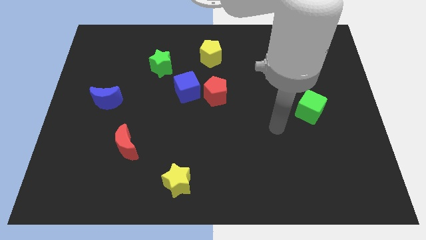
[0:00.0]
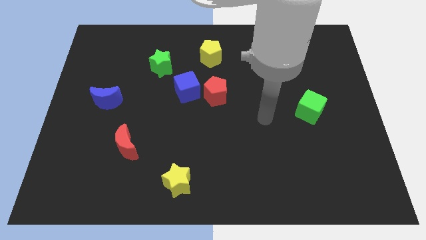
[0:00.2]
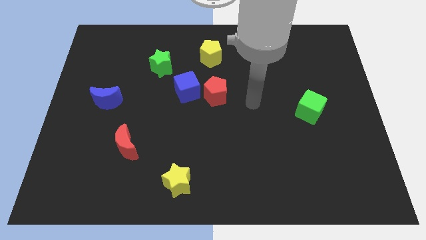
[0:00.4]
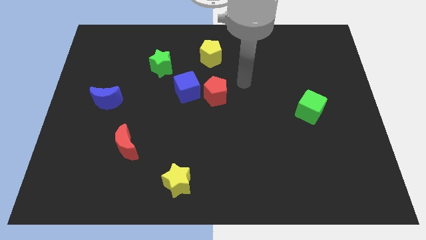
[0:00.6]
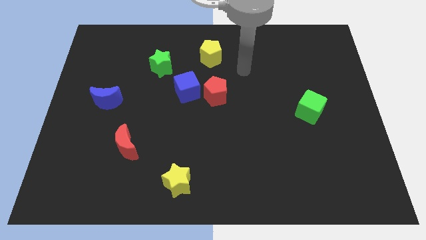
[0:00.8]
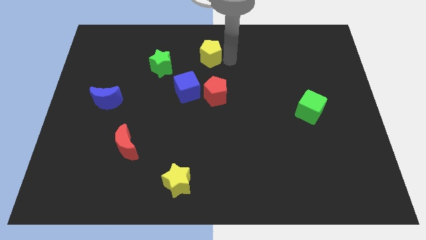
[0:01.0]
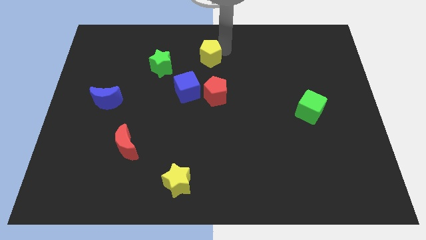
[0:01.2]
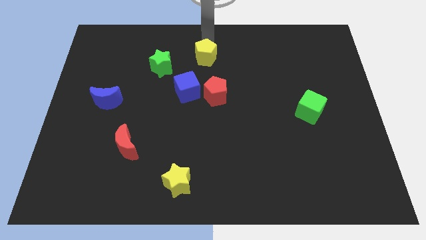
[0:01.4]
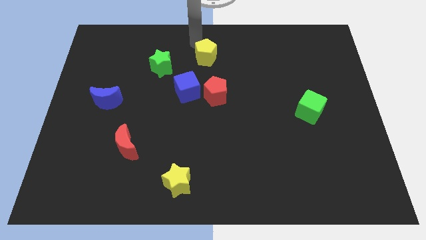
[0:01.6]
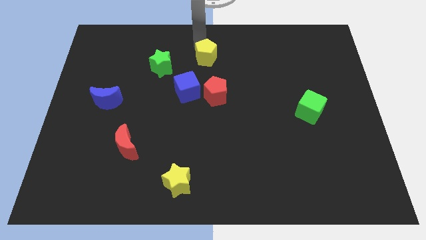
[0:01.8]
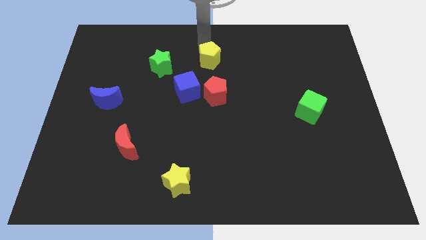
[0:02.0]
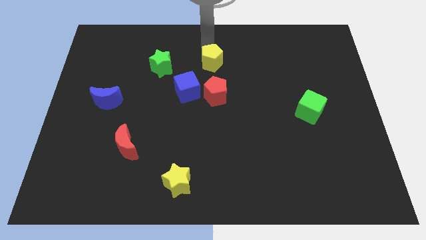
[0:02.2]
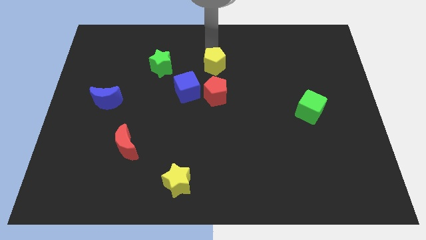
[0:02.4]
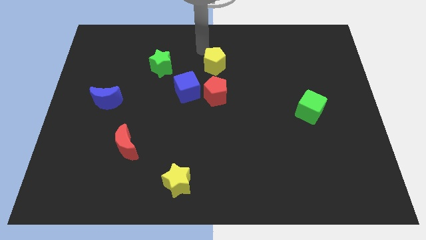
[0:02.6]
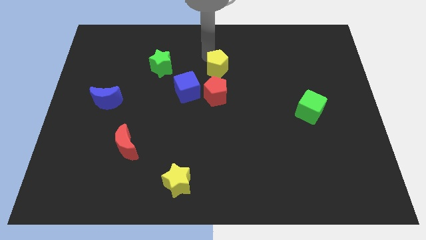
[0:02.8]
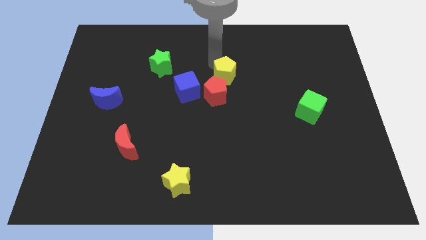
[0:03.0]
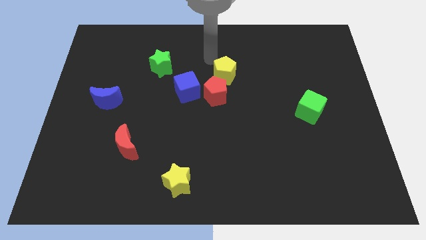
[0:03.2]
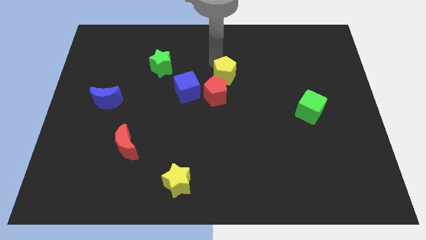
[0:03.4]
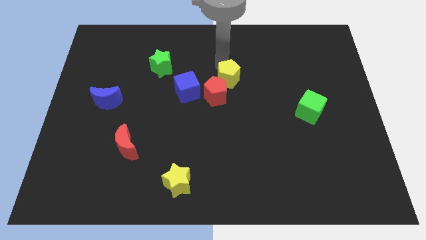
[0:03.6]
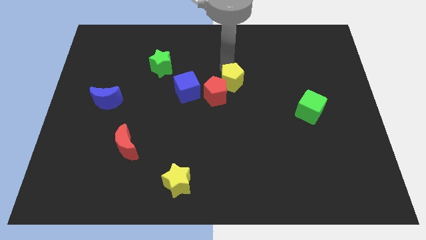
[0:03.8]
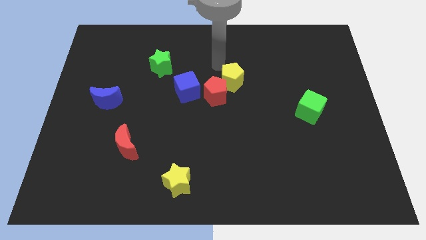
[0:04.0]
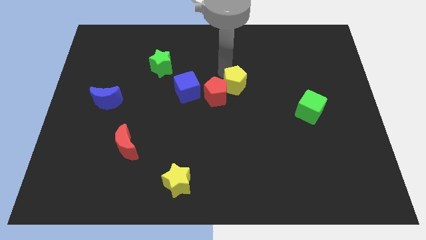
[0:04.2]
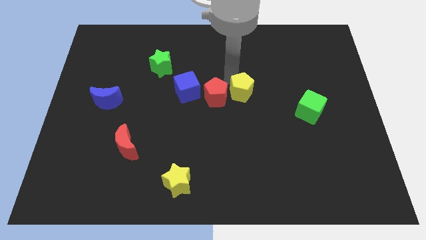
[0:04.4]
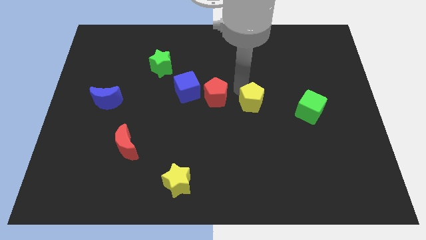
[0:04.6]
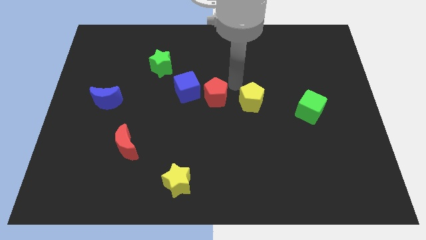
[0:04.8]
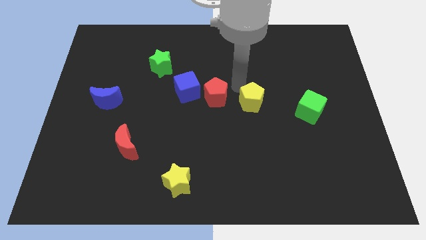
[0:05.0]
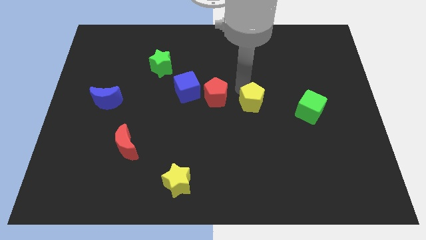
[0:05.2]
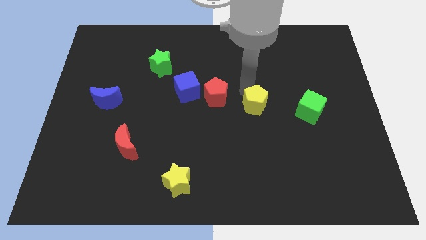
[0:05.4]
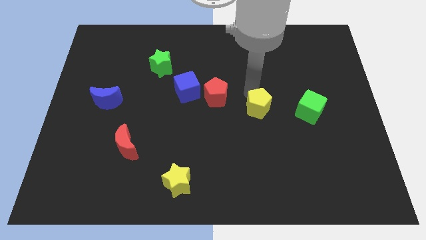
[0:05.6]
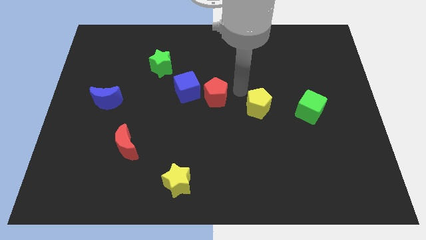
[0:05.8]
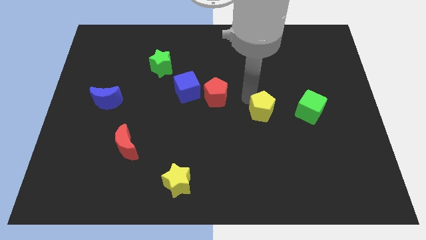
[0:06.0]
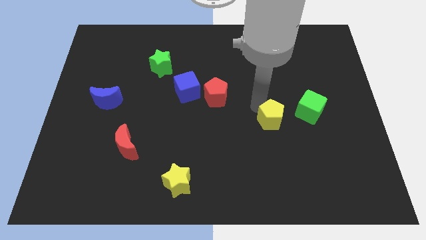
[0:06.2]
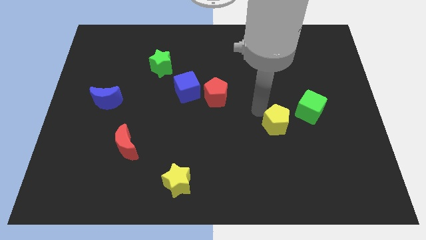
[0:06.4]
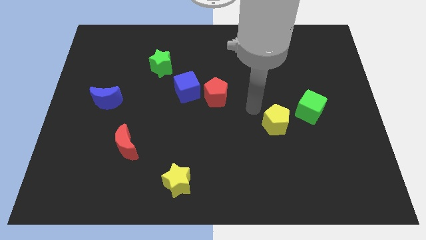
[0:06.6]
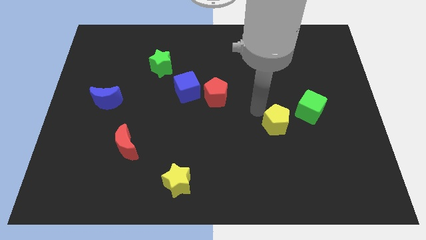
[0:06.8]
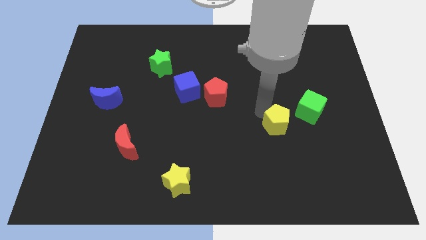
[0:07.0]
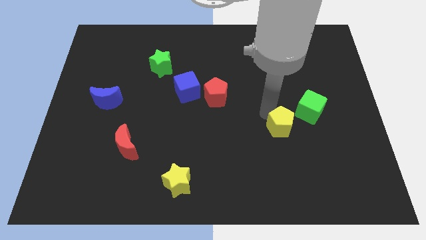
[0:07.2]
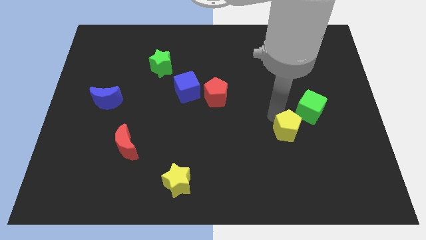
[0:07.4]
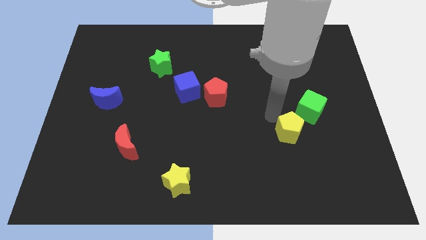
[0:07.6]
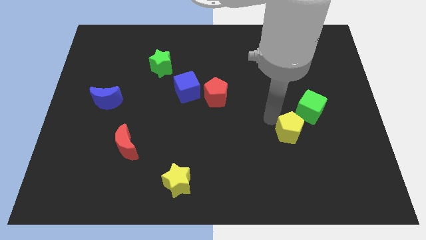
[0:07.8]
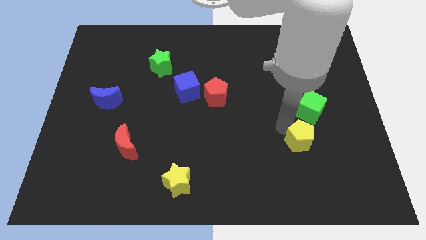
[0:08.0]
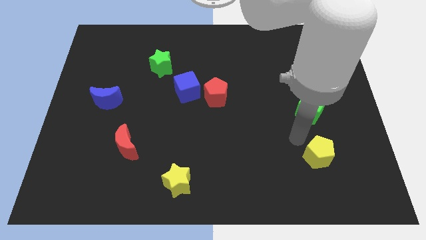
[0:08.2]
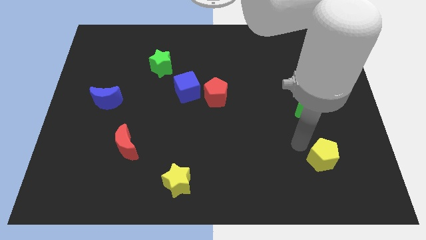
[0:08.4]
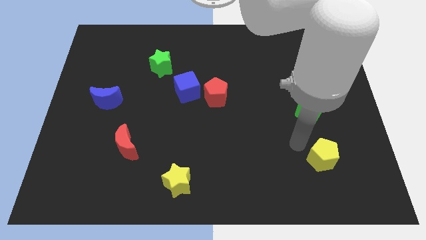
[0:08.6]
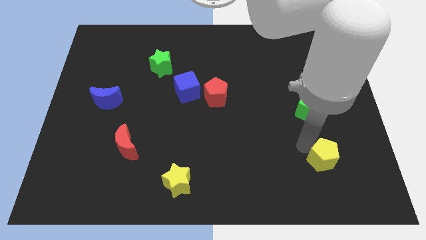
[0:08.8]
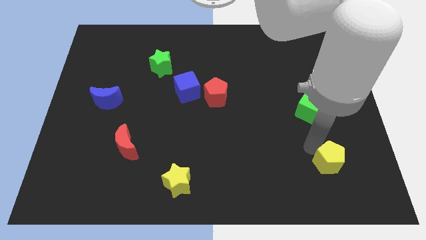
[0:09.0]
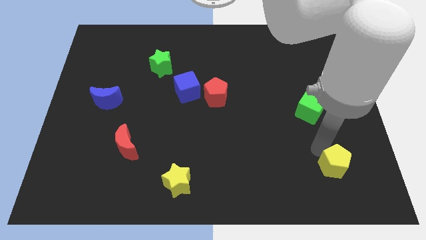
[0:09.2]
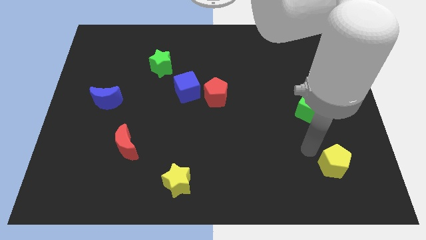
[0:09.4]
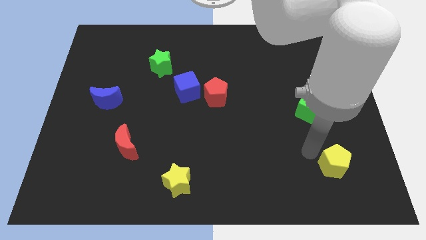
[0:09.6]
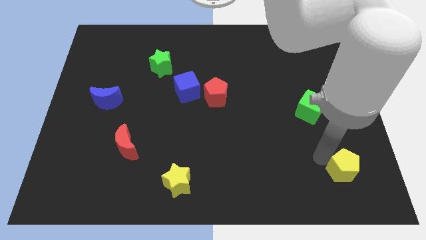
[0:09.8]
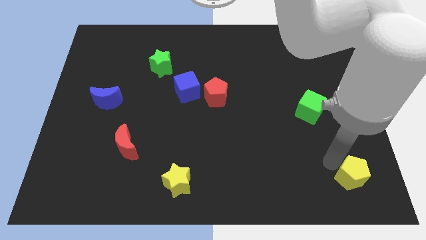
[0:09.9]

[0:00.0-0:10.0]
move the yellow pentagon to the bottom right of the board

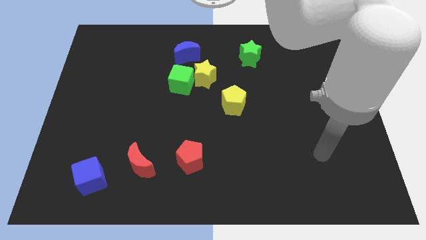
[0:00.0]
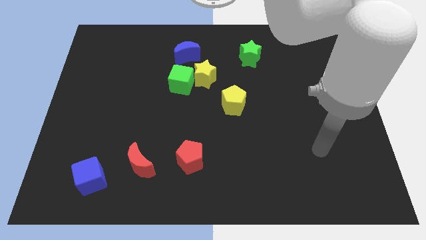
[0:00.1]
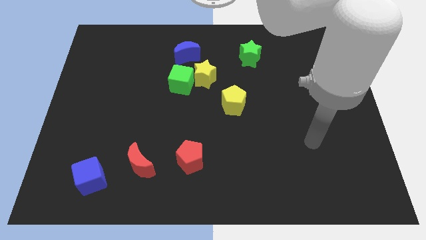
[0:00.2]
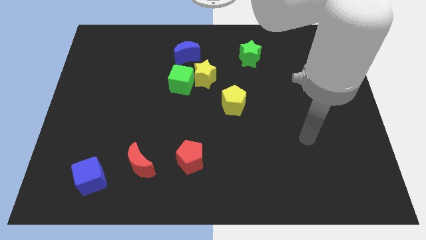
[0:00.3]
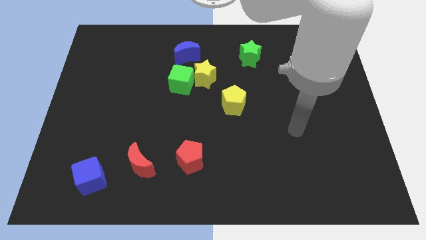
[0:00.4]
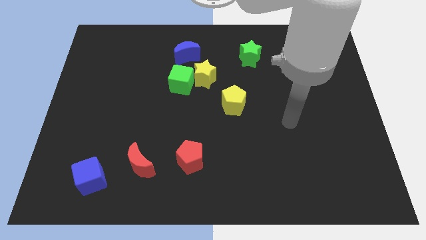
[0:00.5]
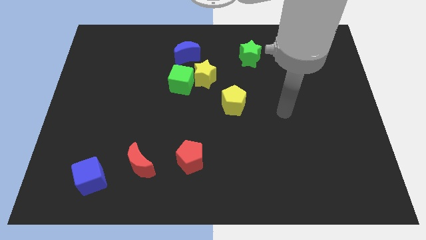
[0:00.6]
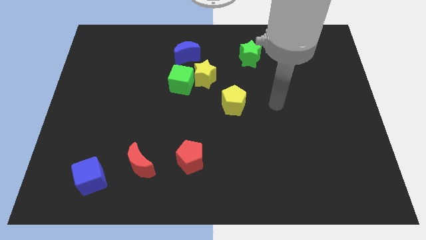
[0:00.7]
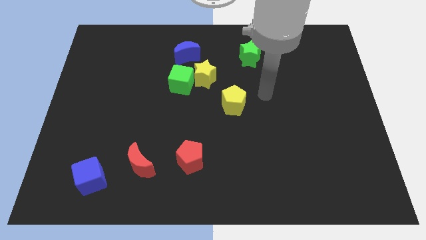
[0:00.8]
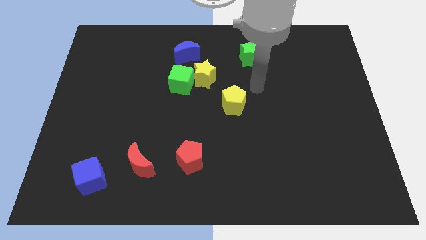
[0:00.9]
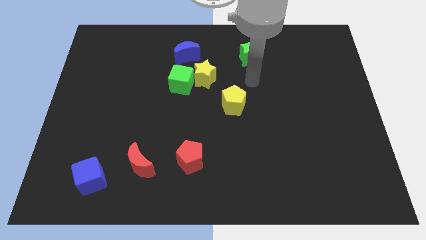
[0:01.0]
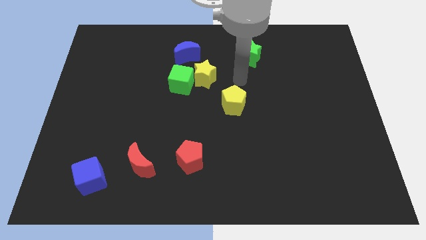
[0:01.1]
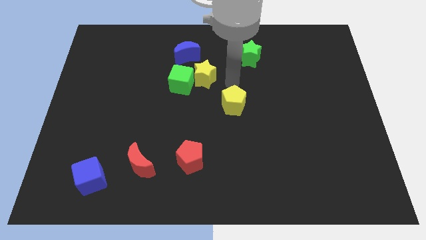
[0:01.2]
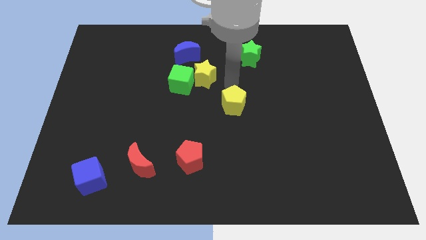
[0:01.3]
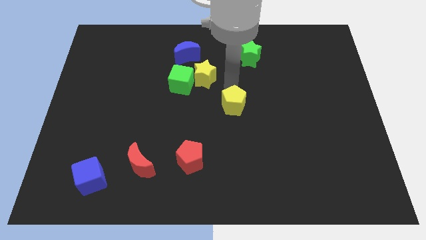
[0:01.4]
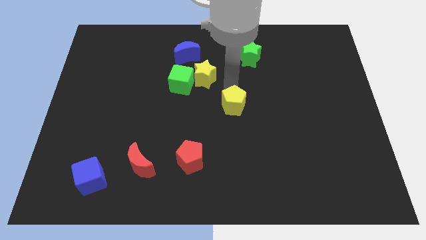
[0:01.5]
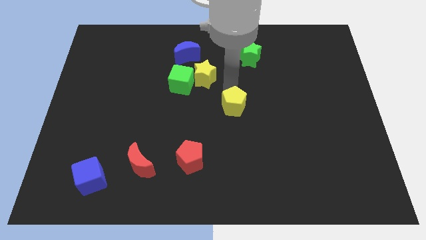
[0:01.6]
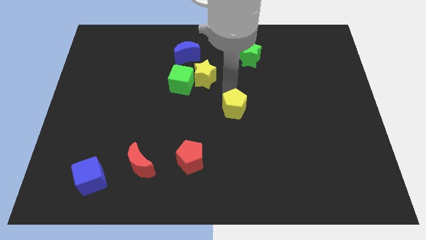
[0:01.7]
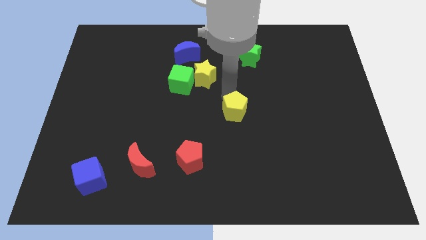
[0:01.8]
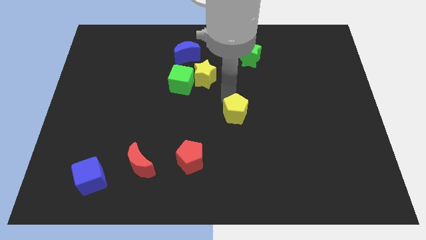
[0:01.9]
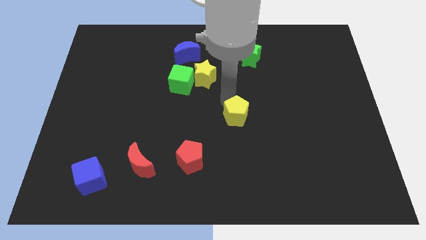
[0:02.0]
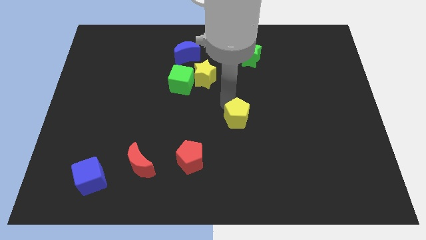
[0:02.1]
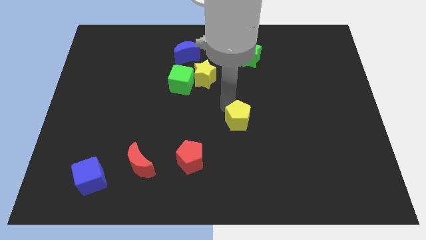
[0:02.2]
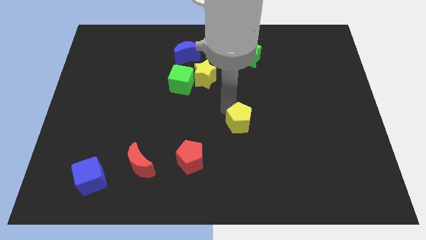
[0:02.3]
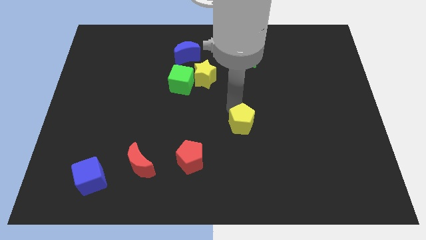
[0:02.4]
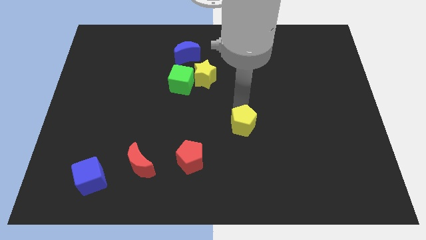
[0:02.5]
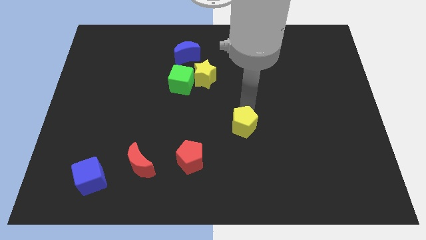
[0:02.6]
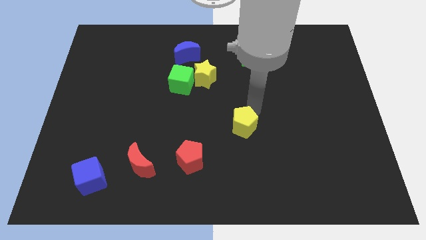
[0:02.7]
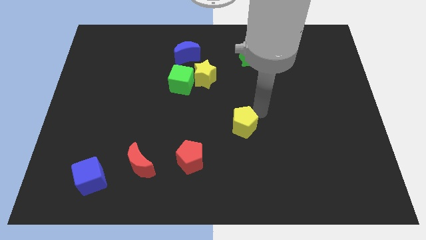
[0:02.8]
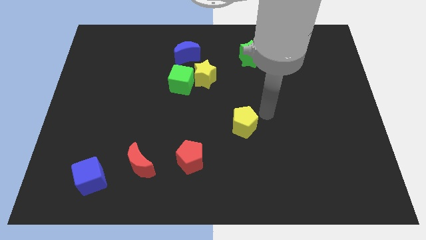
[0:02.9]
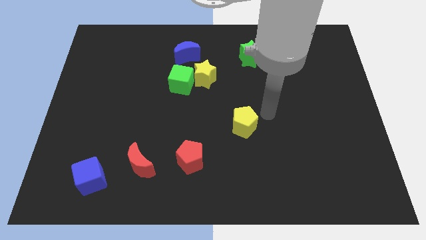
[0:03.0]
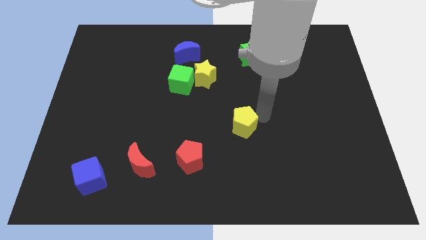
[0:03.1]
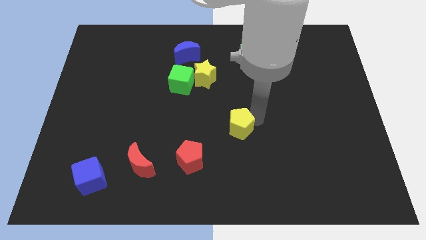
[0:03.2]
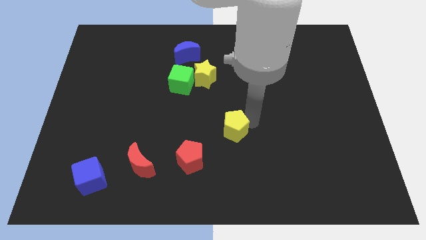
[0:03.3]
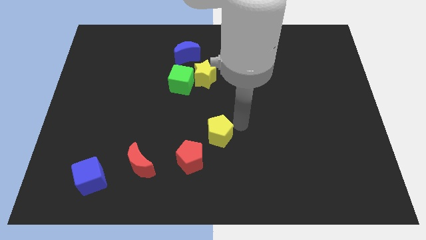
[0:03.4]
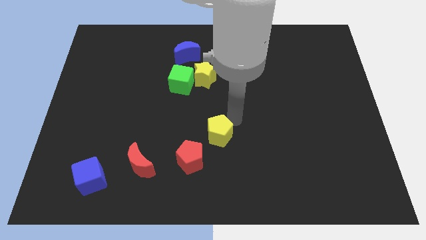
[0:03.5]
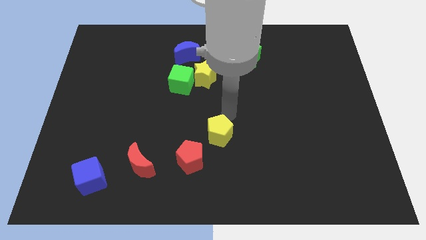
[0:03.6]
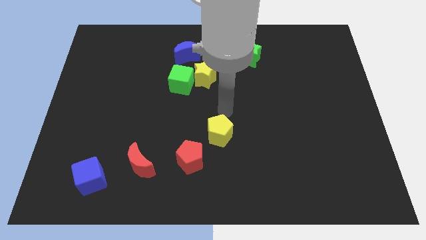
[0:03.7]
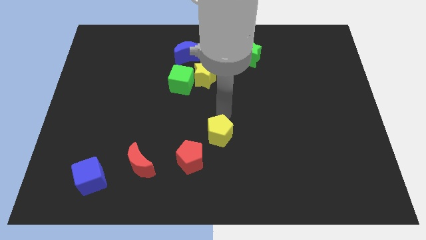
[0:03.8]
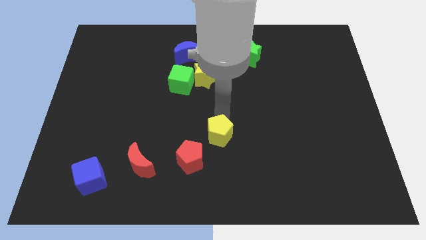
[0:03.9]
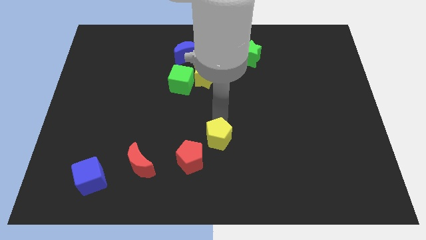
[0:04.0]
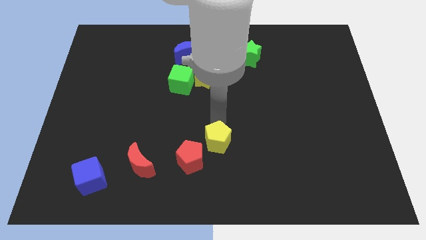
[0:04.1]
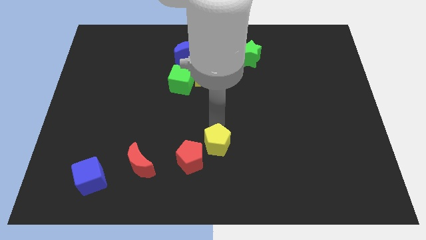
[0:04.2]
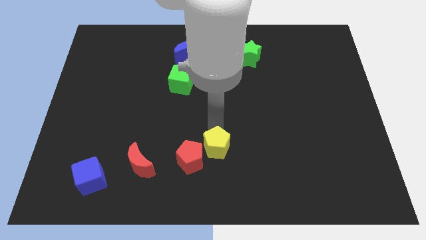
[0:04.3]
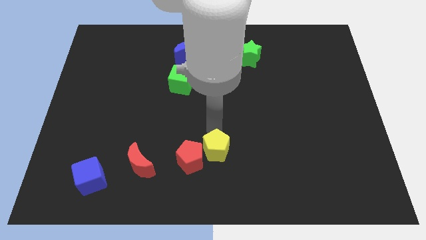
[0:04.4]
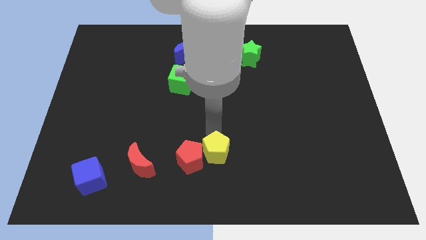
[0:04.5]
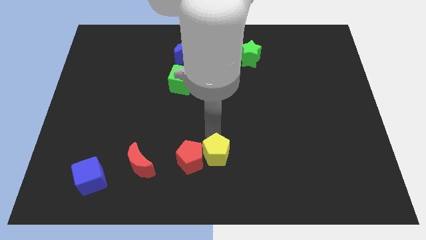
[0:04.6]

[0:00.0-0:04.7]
slide the yellow pentagon to the bottom side
